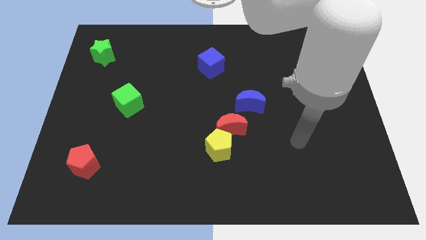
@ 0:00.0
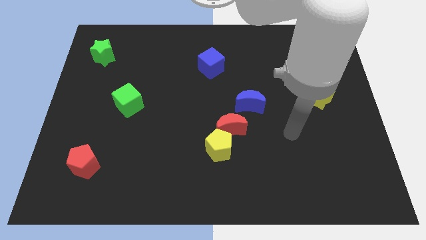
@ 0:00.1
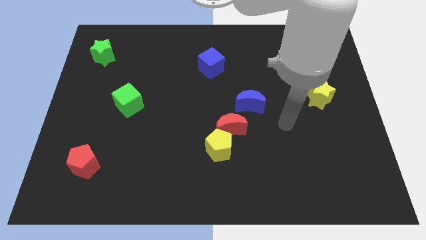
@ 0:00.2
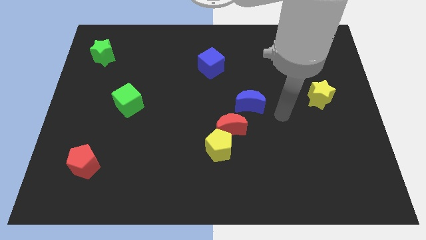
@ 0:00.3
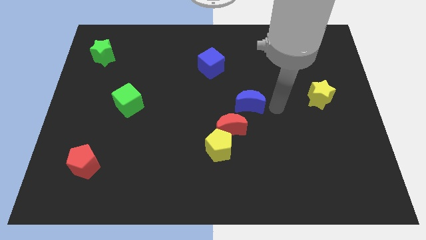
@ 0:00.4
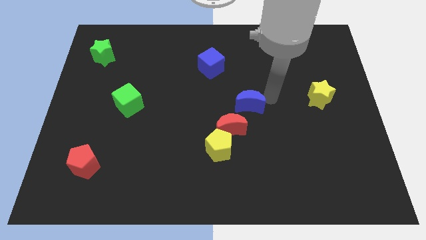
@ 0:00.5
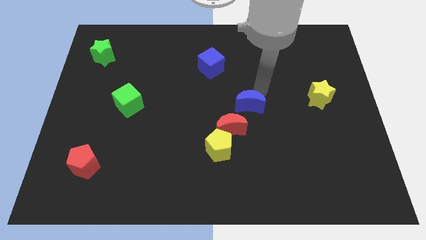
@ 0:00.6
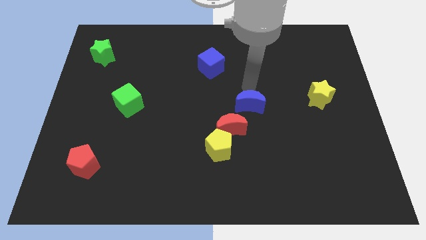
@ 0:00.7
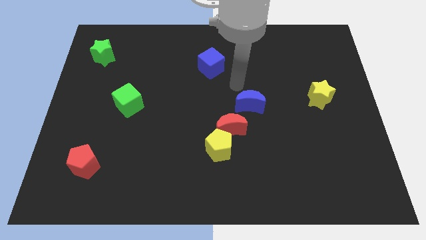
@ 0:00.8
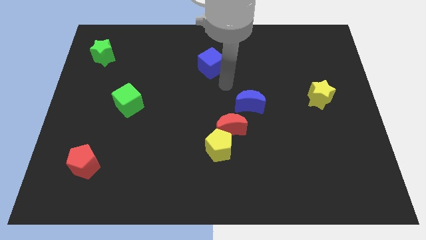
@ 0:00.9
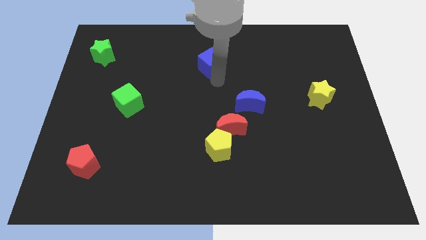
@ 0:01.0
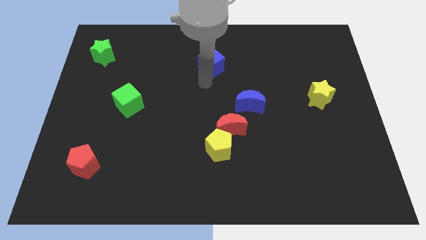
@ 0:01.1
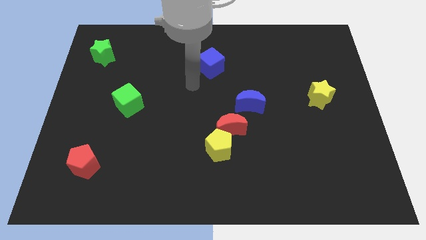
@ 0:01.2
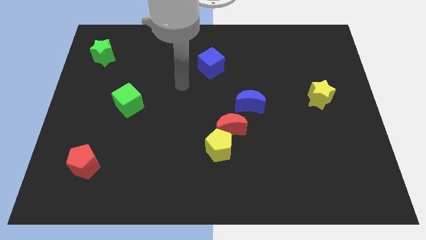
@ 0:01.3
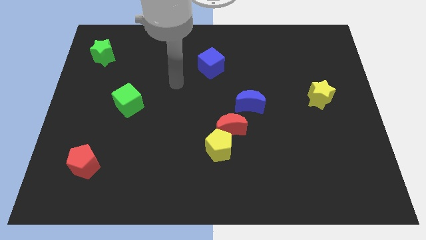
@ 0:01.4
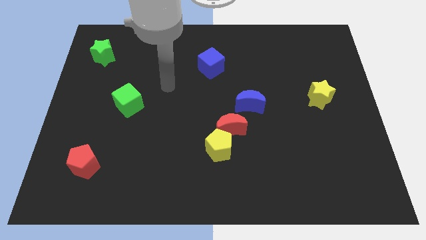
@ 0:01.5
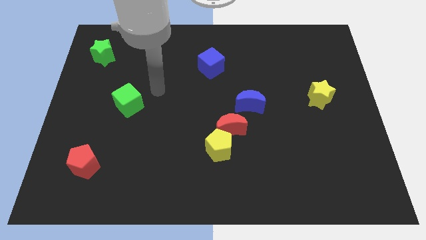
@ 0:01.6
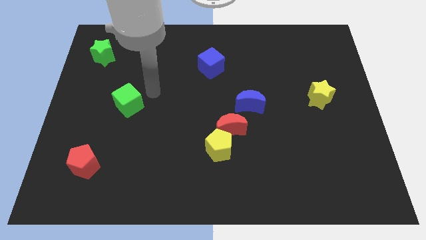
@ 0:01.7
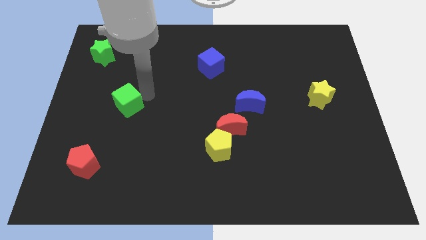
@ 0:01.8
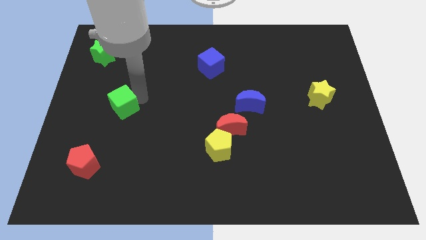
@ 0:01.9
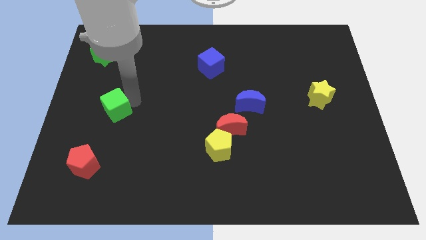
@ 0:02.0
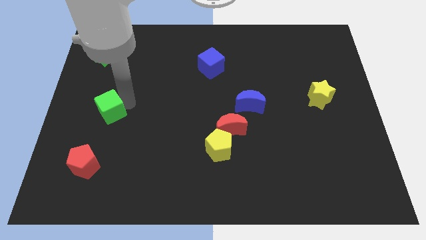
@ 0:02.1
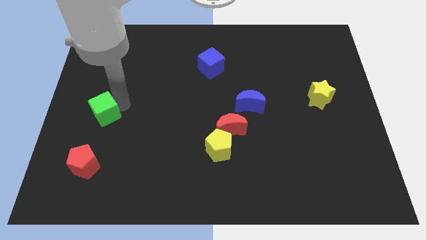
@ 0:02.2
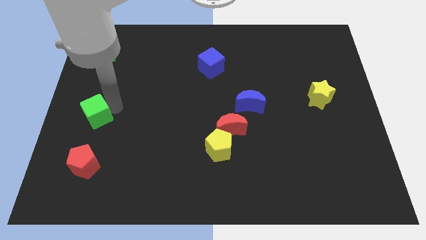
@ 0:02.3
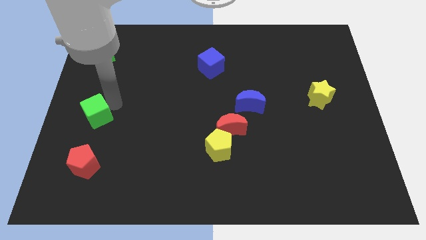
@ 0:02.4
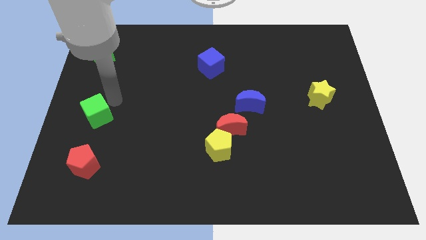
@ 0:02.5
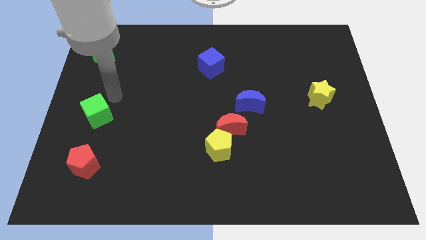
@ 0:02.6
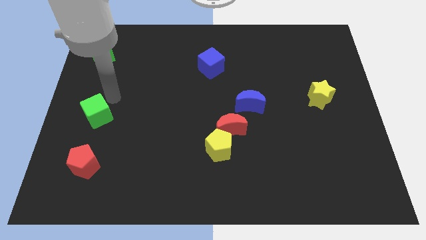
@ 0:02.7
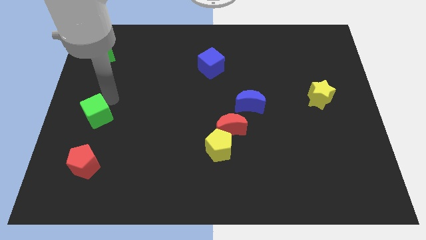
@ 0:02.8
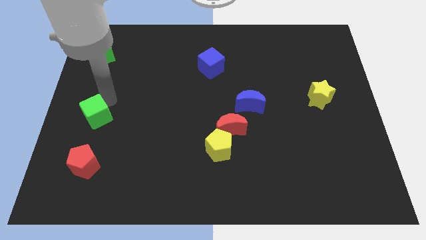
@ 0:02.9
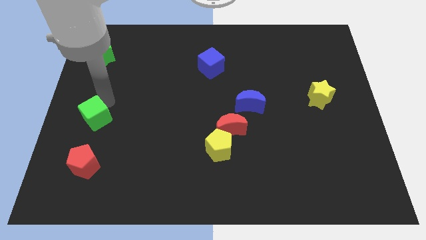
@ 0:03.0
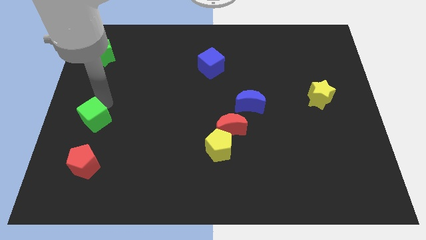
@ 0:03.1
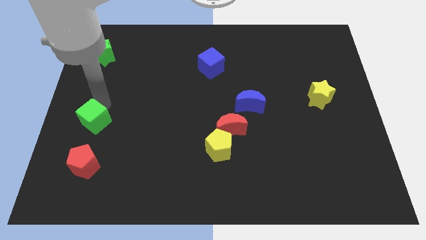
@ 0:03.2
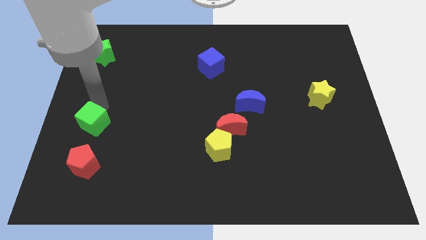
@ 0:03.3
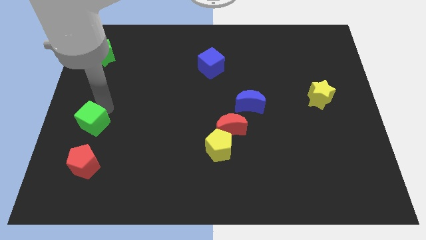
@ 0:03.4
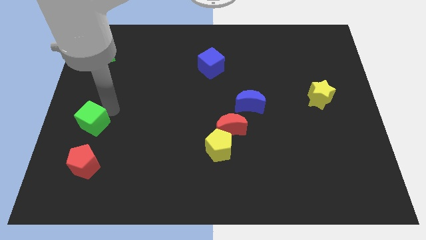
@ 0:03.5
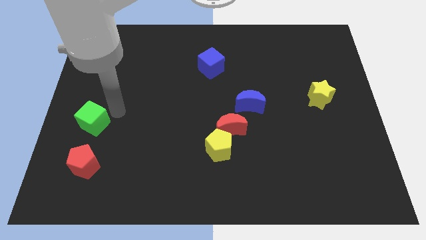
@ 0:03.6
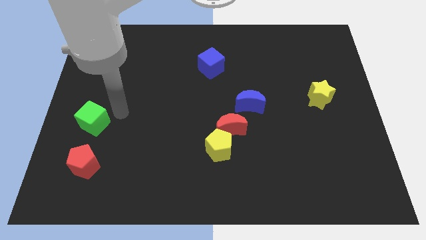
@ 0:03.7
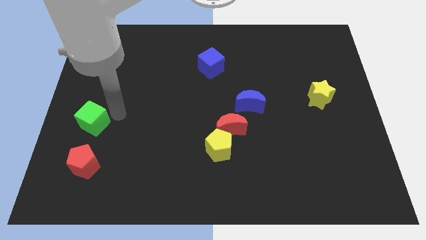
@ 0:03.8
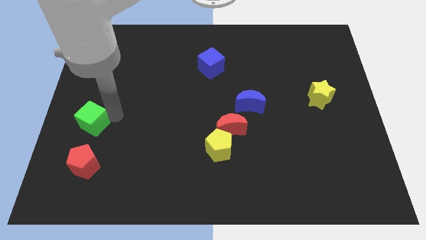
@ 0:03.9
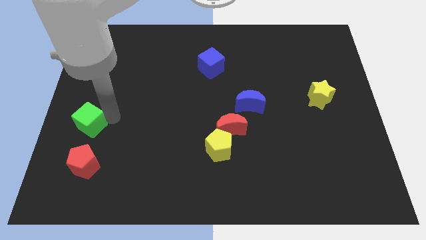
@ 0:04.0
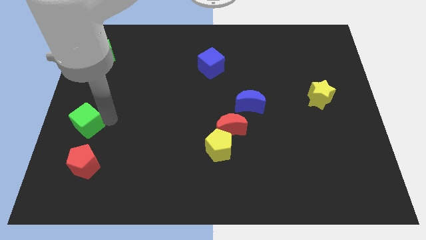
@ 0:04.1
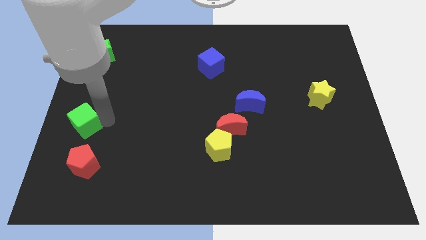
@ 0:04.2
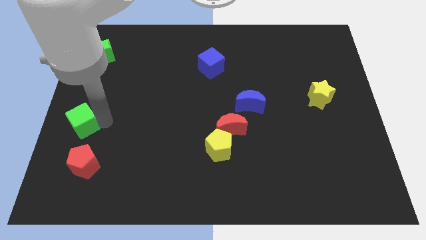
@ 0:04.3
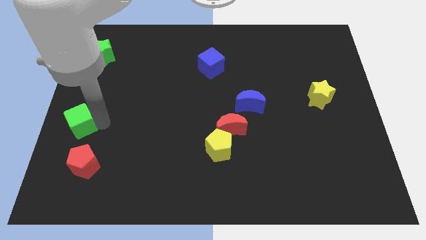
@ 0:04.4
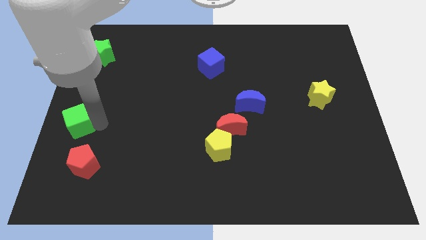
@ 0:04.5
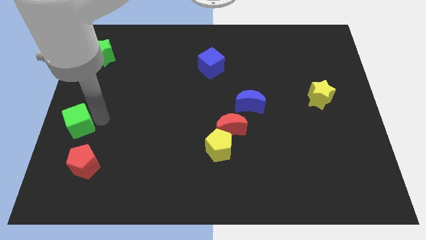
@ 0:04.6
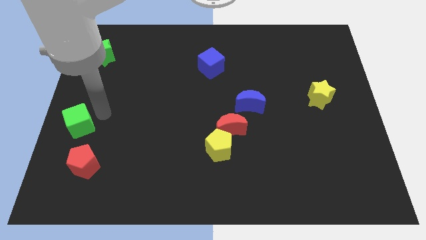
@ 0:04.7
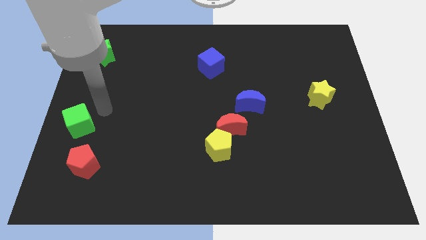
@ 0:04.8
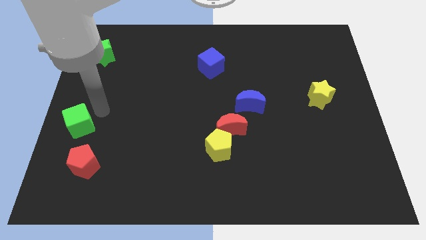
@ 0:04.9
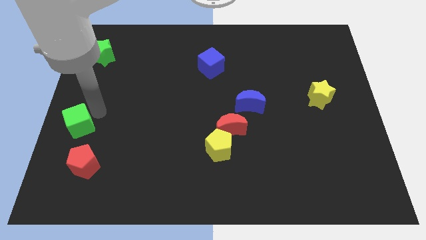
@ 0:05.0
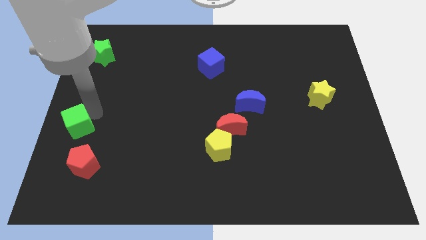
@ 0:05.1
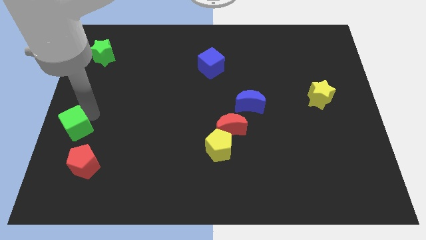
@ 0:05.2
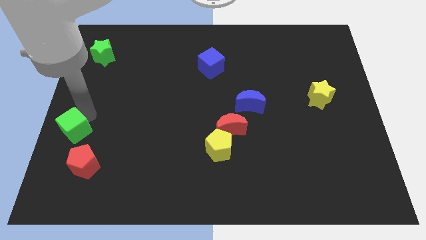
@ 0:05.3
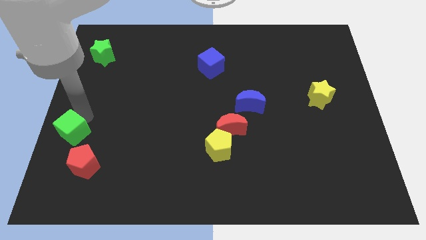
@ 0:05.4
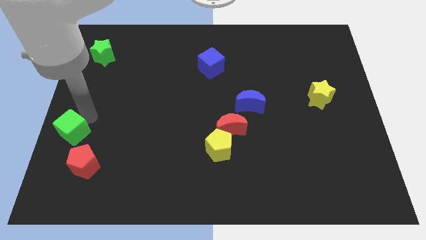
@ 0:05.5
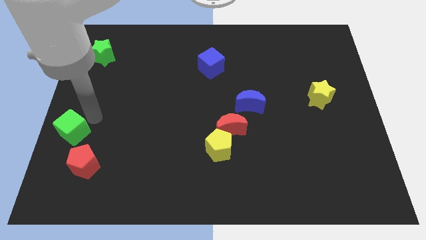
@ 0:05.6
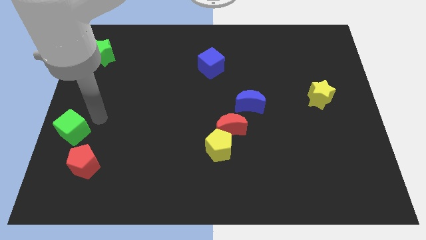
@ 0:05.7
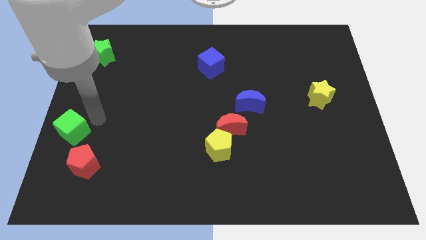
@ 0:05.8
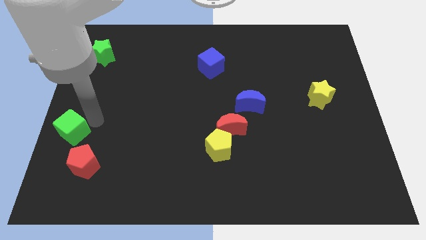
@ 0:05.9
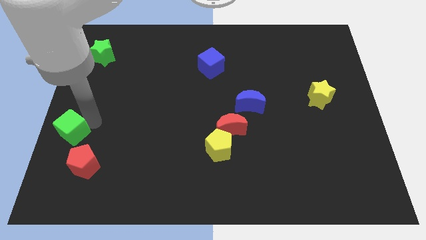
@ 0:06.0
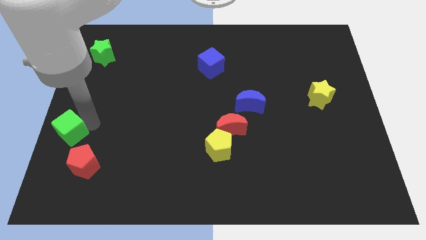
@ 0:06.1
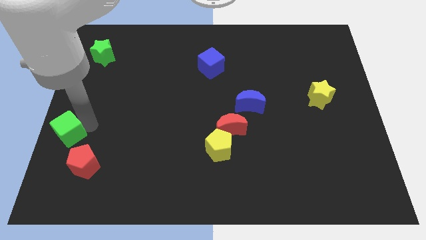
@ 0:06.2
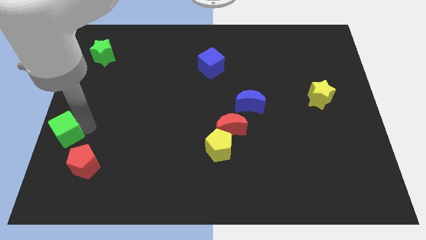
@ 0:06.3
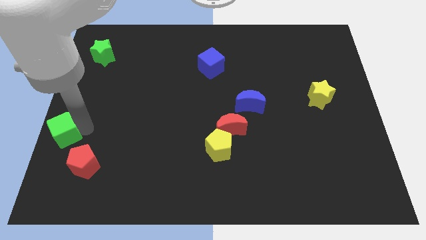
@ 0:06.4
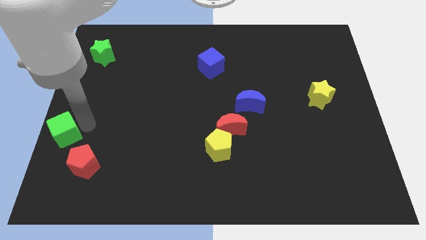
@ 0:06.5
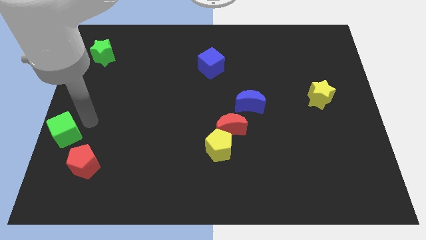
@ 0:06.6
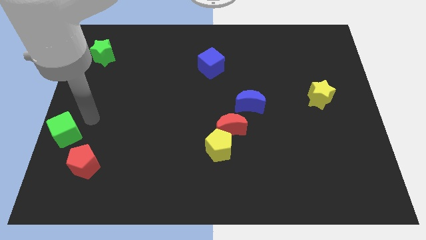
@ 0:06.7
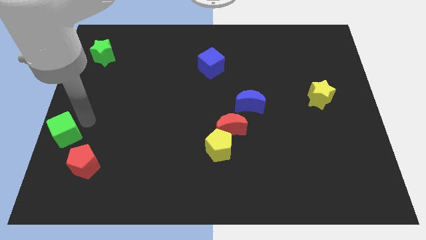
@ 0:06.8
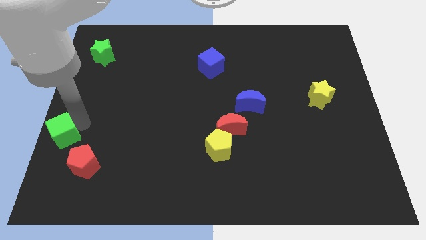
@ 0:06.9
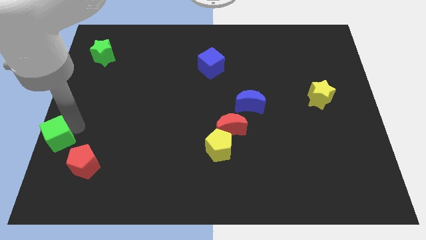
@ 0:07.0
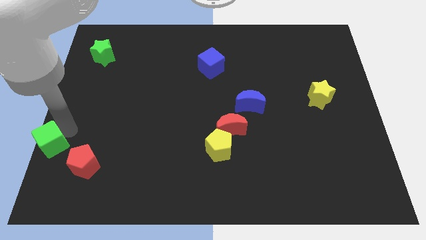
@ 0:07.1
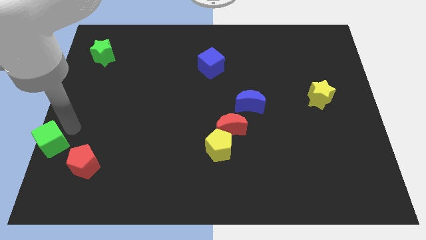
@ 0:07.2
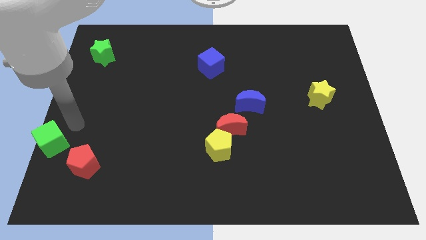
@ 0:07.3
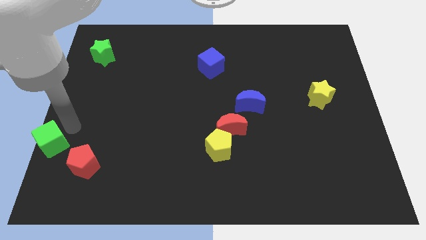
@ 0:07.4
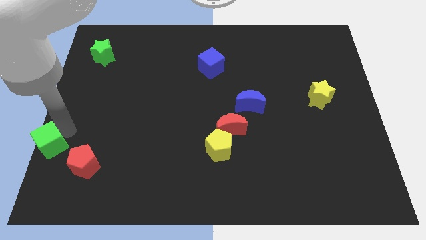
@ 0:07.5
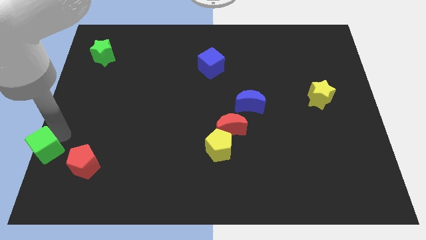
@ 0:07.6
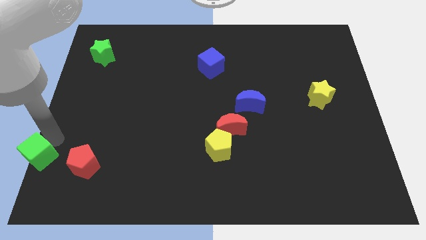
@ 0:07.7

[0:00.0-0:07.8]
push the green cube to the bottom left of the board
